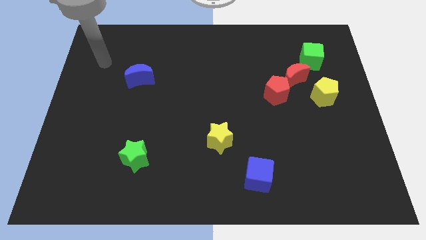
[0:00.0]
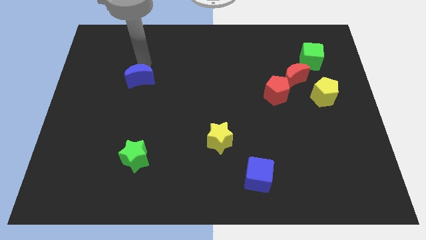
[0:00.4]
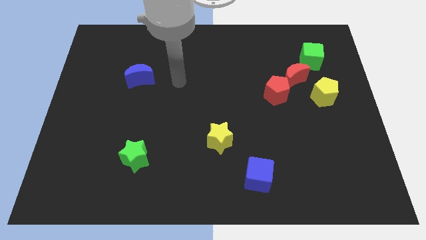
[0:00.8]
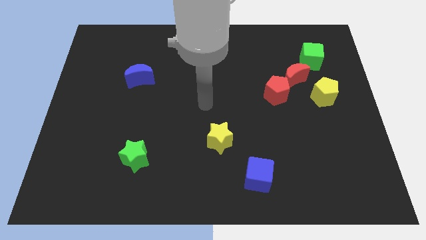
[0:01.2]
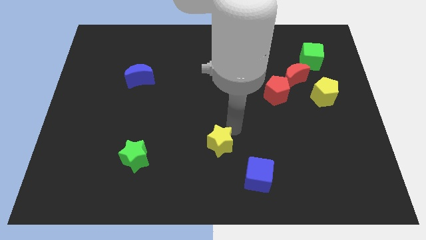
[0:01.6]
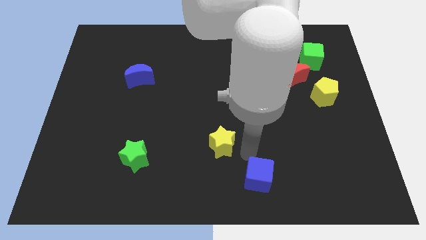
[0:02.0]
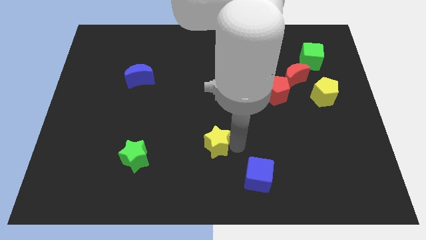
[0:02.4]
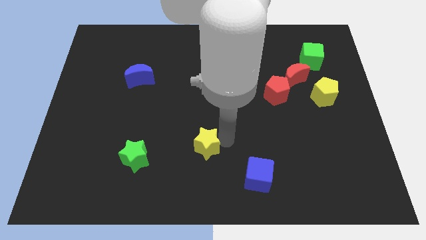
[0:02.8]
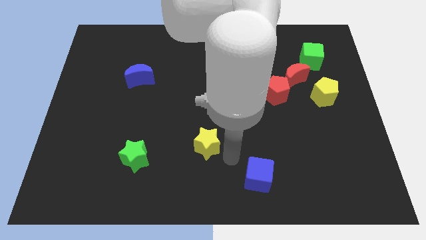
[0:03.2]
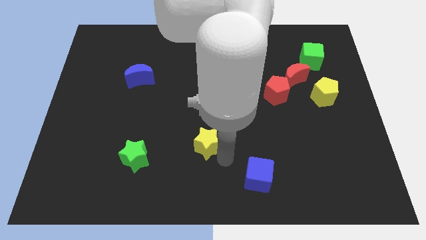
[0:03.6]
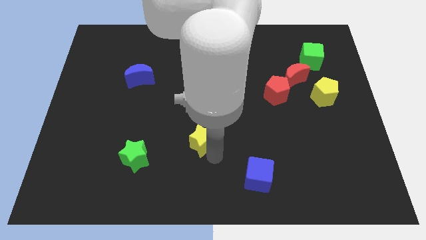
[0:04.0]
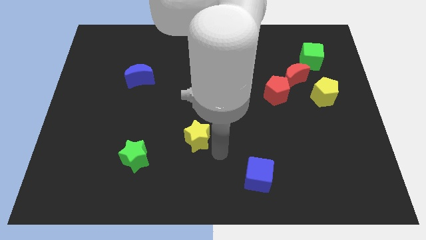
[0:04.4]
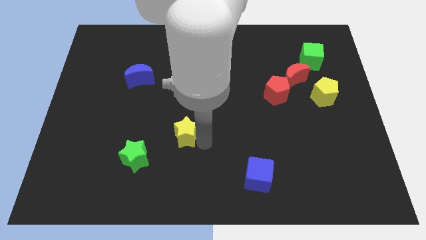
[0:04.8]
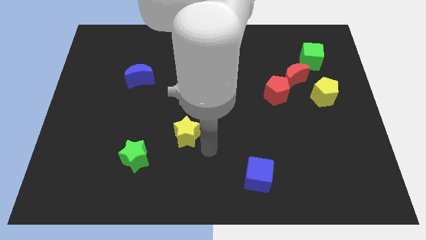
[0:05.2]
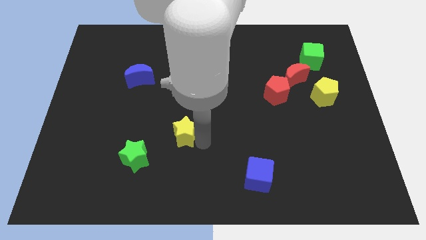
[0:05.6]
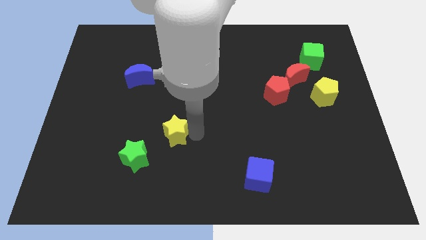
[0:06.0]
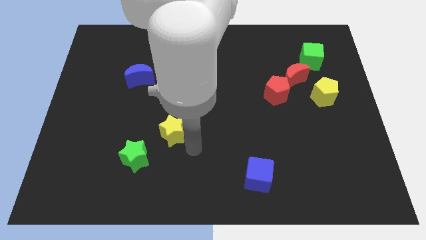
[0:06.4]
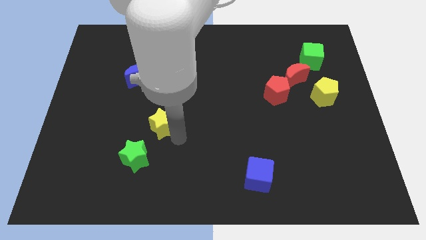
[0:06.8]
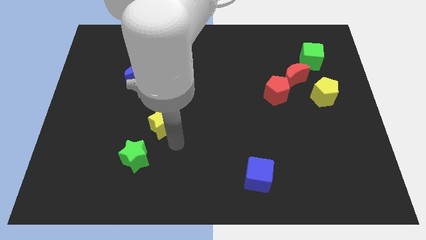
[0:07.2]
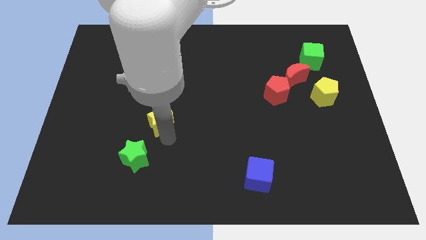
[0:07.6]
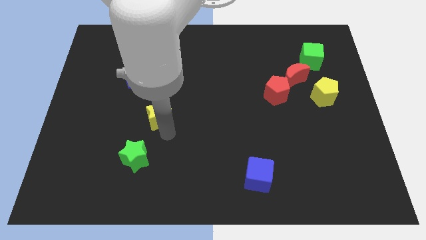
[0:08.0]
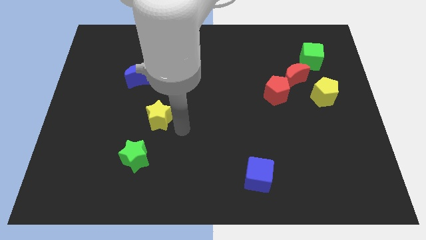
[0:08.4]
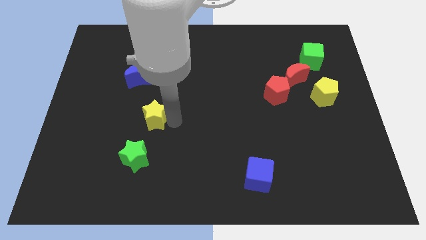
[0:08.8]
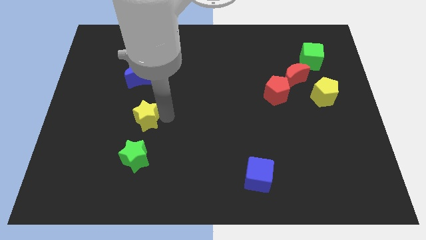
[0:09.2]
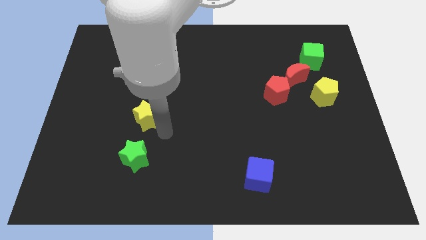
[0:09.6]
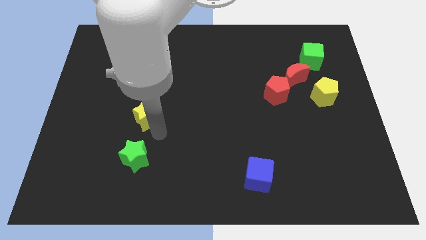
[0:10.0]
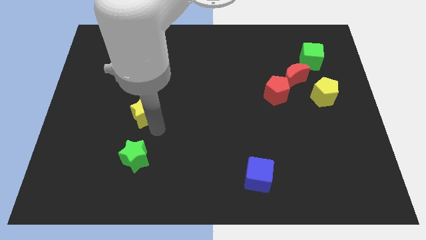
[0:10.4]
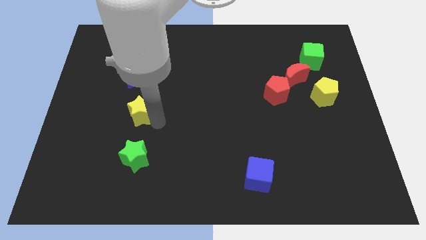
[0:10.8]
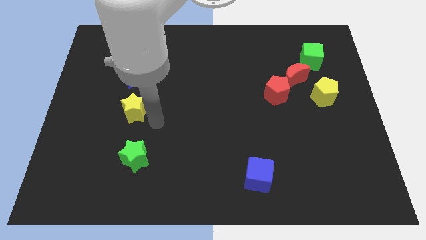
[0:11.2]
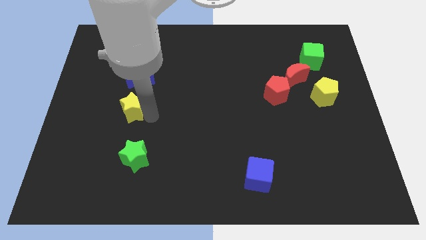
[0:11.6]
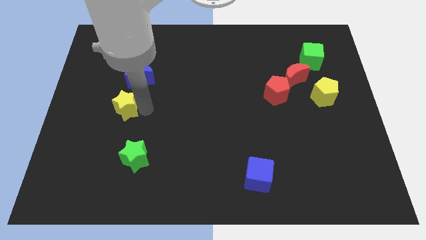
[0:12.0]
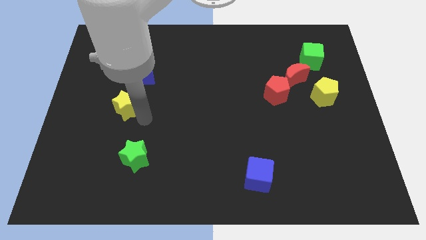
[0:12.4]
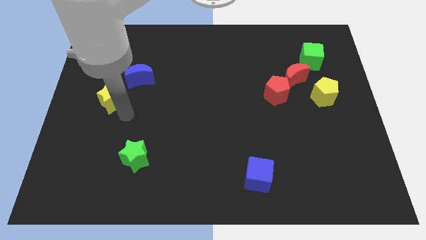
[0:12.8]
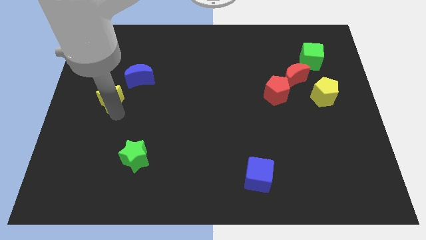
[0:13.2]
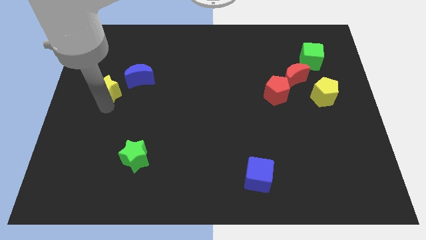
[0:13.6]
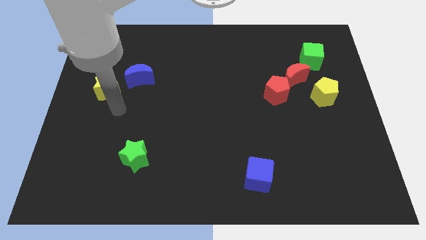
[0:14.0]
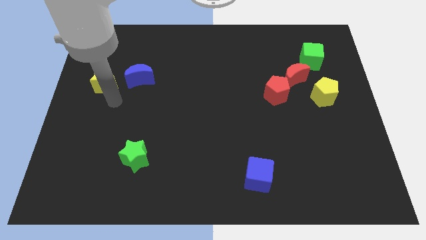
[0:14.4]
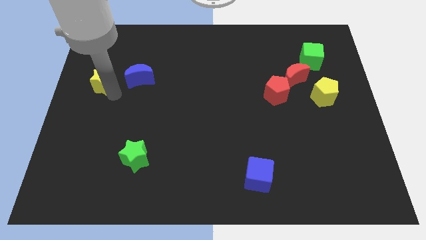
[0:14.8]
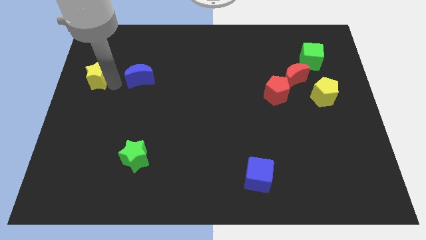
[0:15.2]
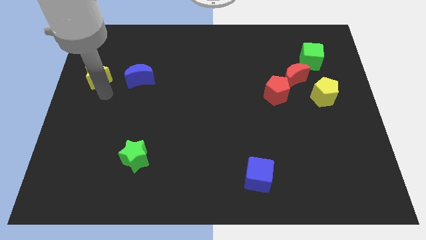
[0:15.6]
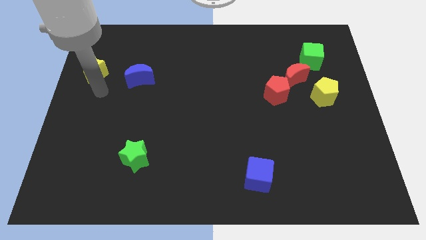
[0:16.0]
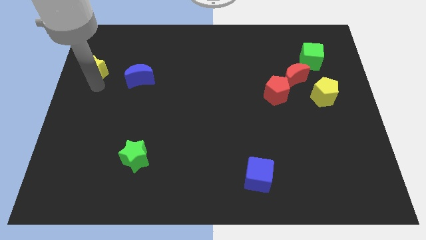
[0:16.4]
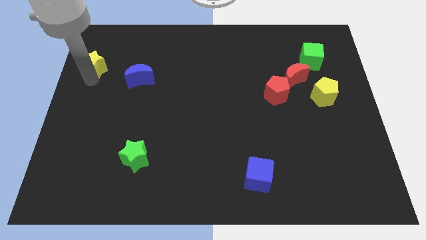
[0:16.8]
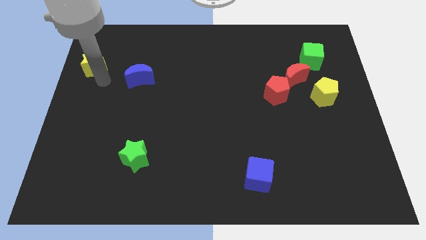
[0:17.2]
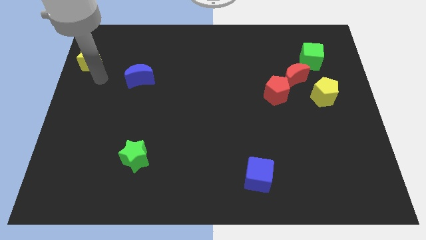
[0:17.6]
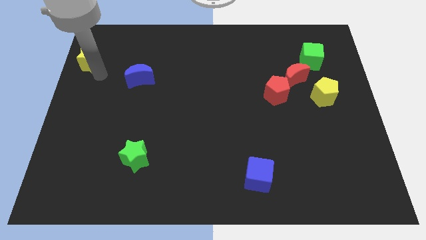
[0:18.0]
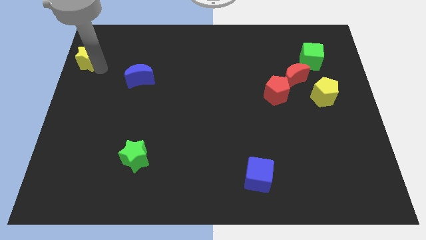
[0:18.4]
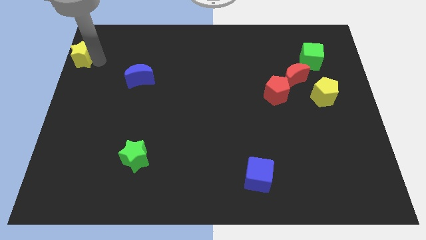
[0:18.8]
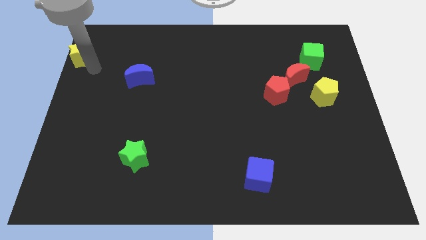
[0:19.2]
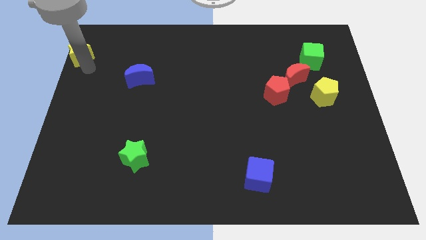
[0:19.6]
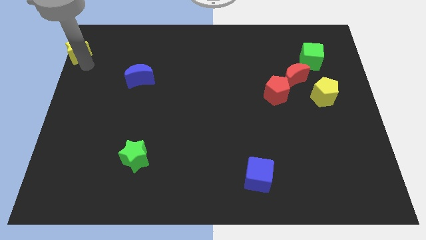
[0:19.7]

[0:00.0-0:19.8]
slide the yellow star to the top left of the board

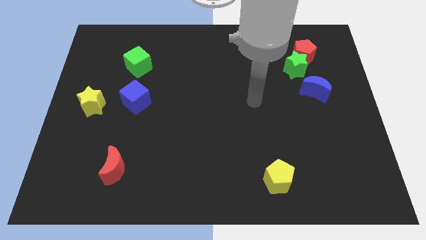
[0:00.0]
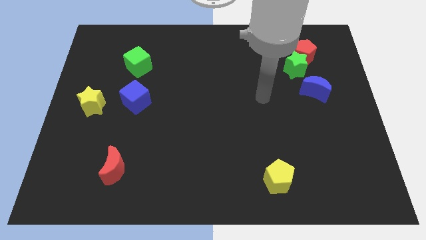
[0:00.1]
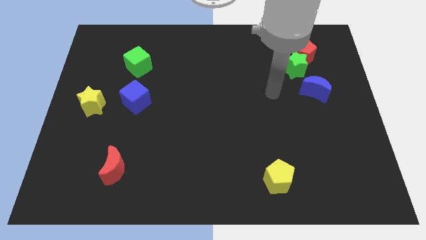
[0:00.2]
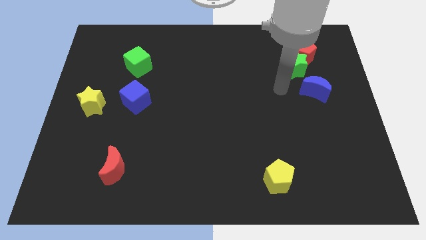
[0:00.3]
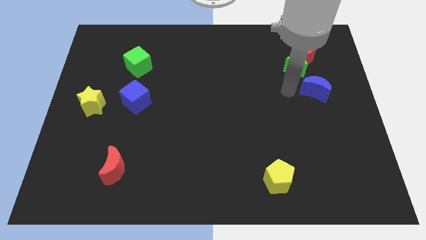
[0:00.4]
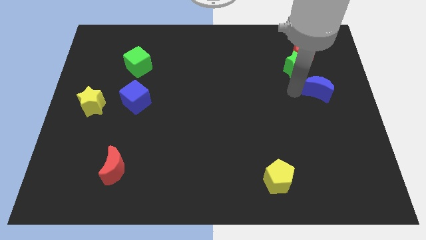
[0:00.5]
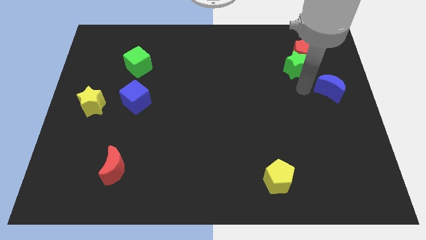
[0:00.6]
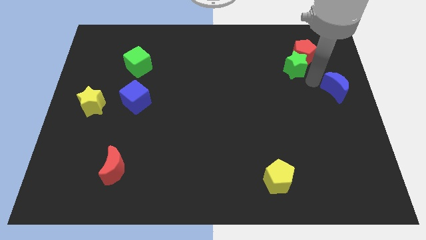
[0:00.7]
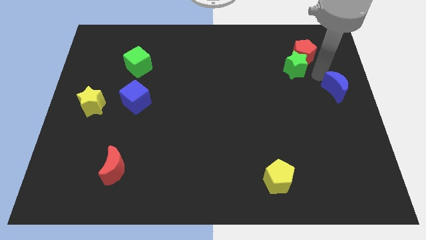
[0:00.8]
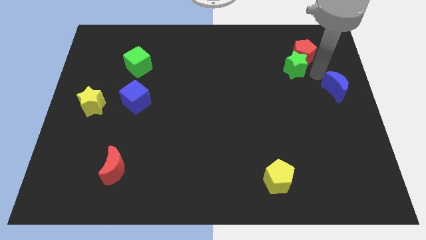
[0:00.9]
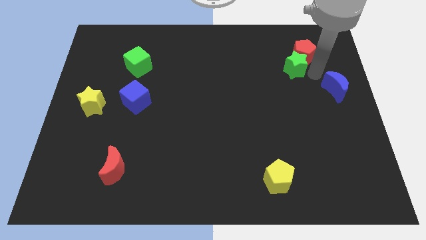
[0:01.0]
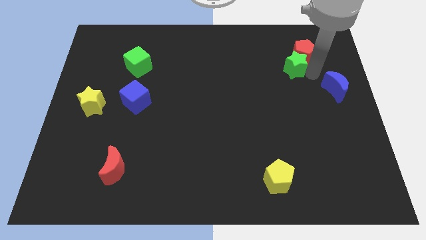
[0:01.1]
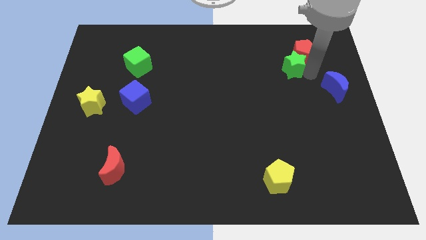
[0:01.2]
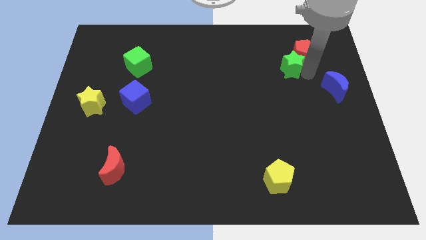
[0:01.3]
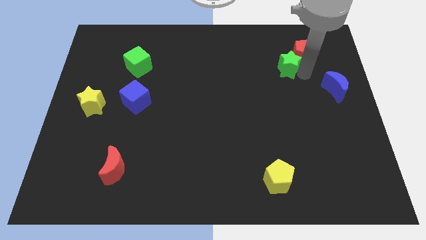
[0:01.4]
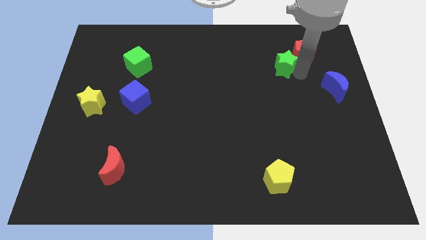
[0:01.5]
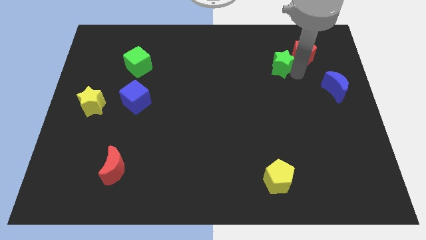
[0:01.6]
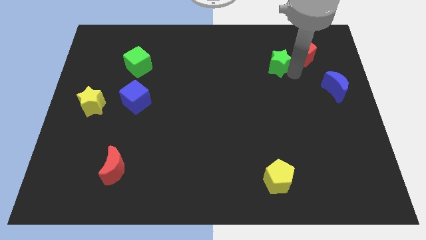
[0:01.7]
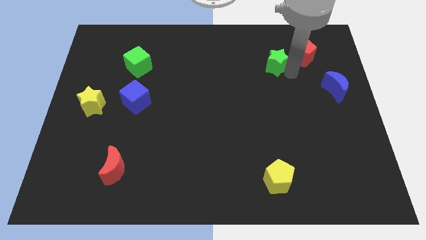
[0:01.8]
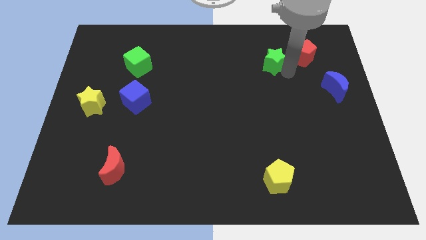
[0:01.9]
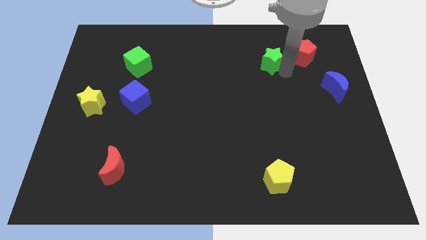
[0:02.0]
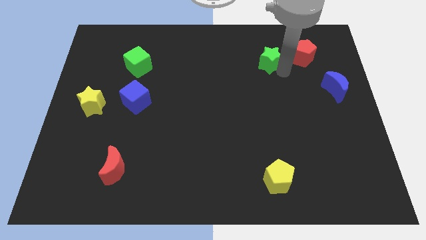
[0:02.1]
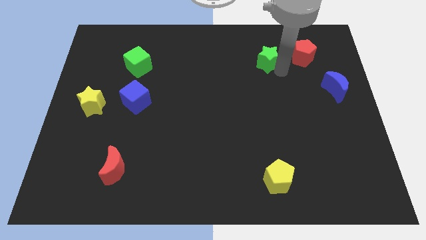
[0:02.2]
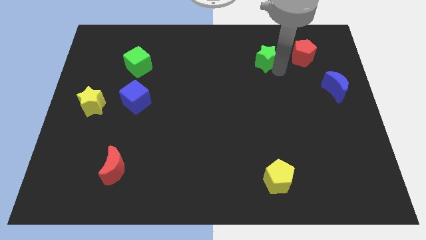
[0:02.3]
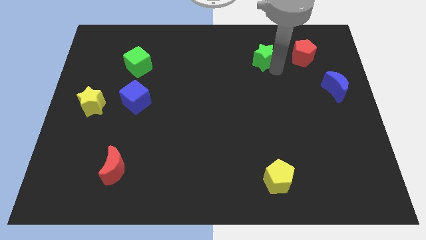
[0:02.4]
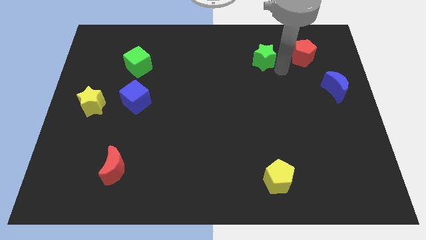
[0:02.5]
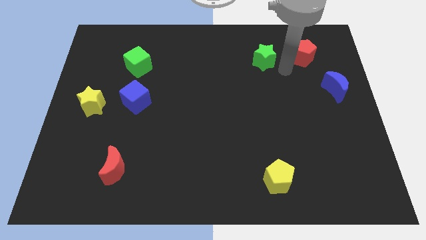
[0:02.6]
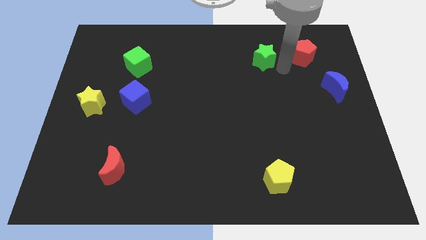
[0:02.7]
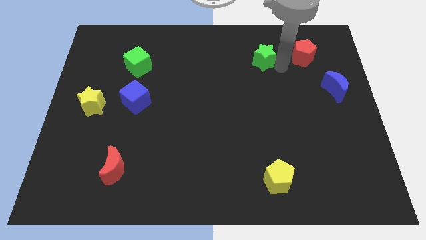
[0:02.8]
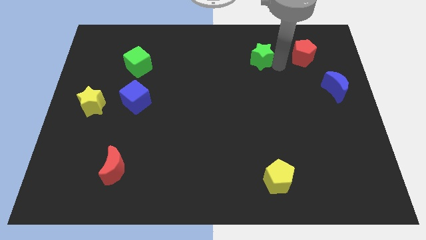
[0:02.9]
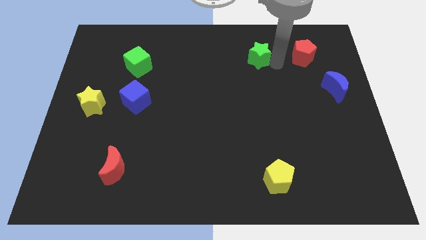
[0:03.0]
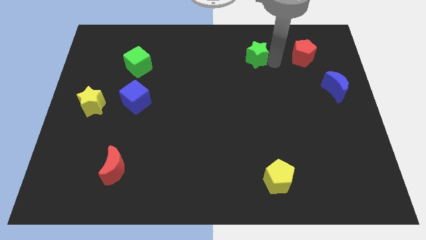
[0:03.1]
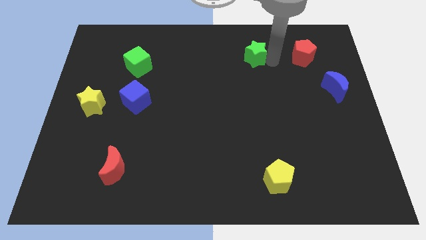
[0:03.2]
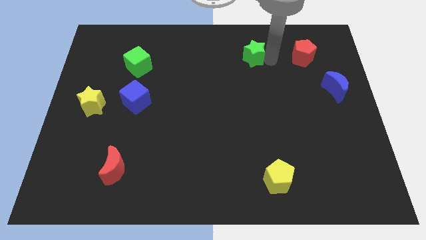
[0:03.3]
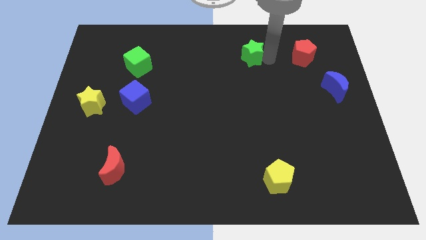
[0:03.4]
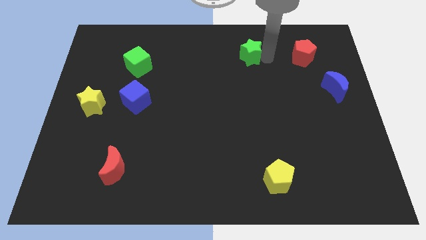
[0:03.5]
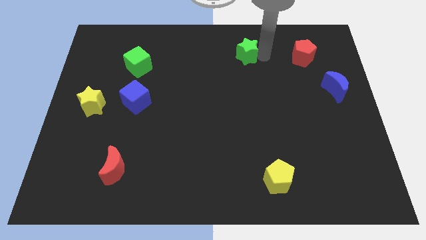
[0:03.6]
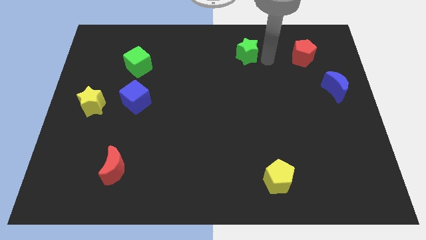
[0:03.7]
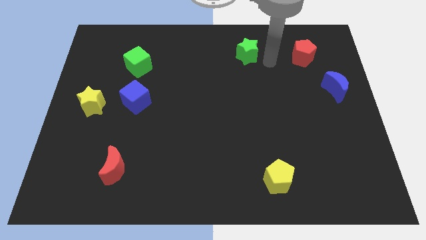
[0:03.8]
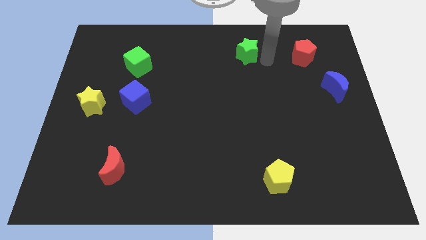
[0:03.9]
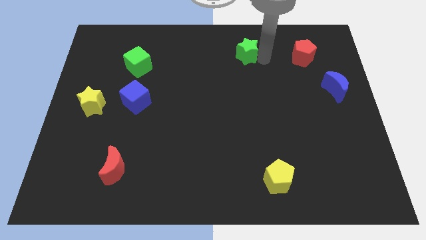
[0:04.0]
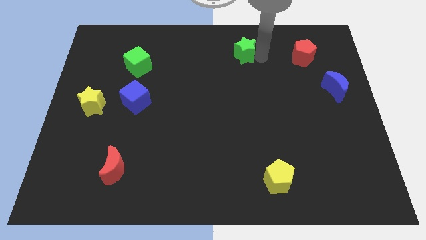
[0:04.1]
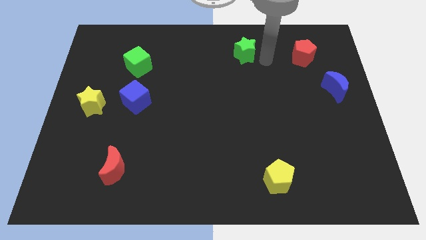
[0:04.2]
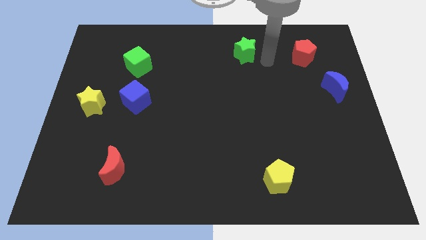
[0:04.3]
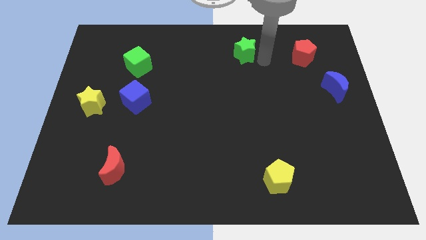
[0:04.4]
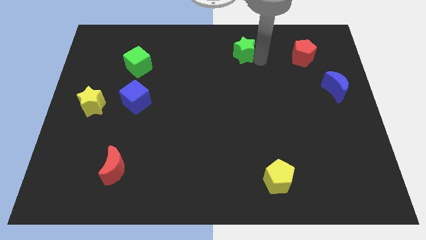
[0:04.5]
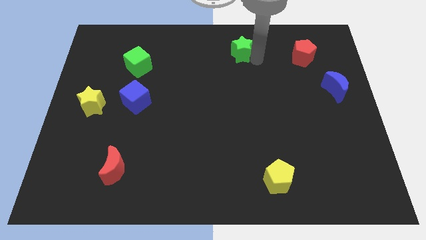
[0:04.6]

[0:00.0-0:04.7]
slide the green star to the top
